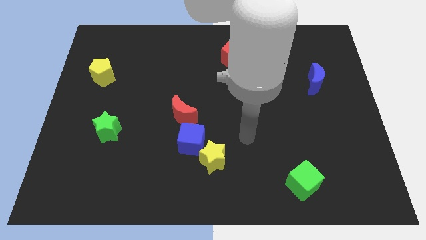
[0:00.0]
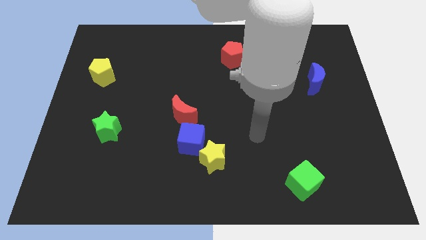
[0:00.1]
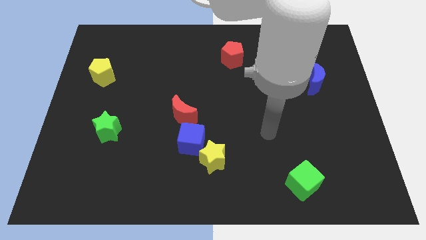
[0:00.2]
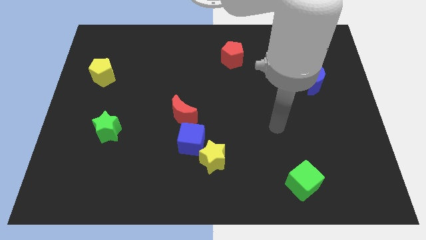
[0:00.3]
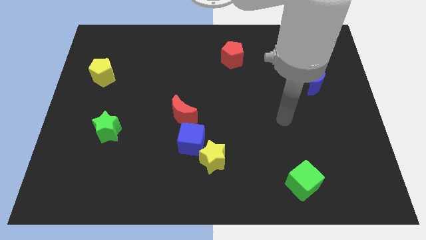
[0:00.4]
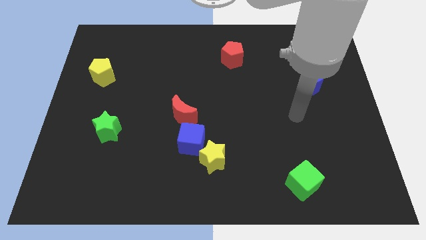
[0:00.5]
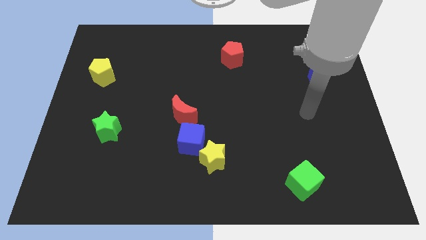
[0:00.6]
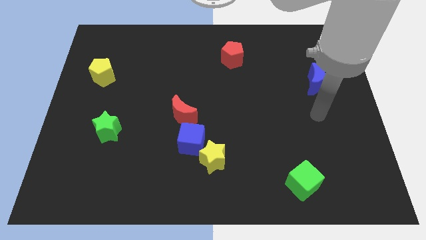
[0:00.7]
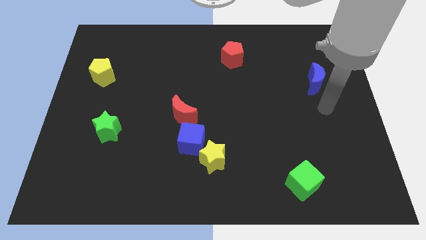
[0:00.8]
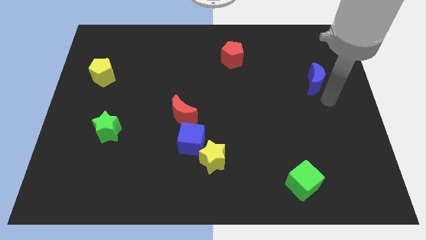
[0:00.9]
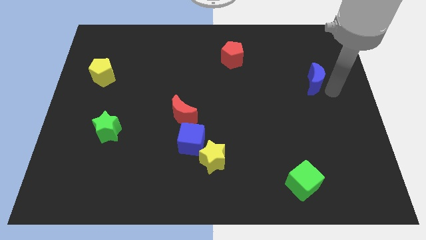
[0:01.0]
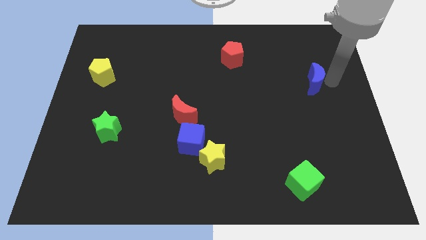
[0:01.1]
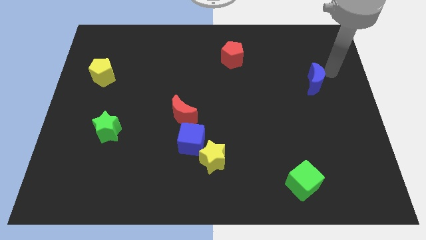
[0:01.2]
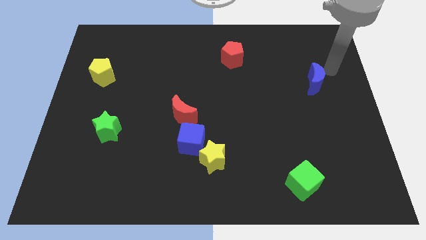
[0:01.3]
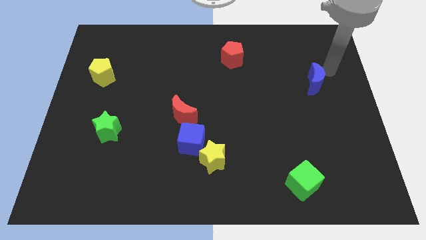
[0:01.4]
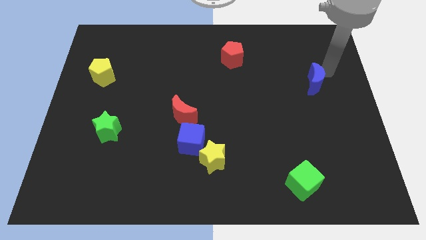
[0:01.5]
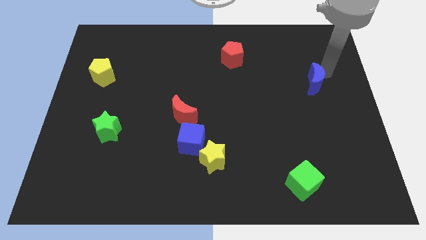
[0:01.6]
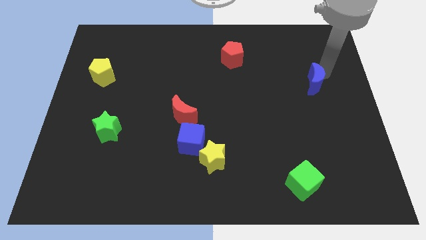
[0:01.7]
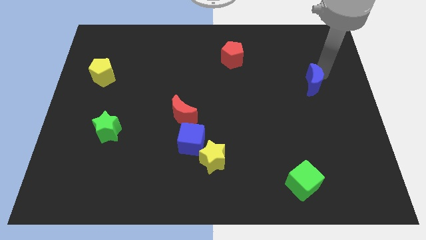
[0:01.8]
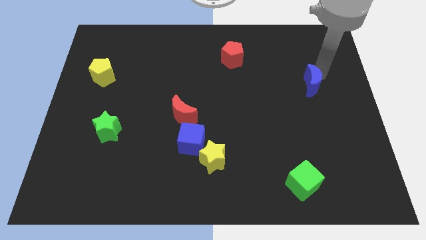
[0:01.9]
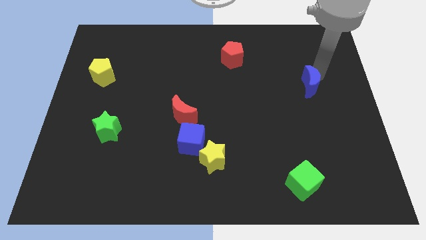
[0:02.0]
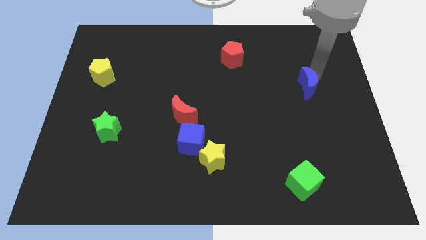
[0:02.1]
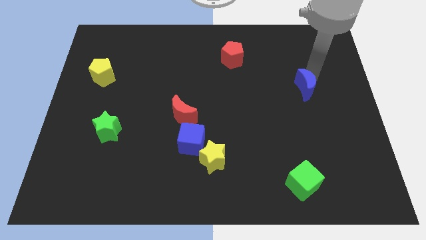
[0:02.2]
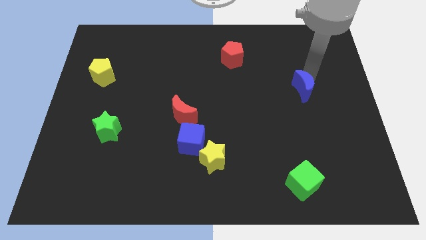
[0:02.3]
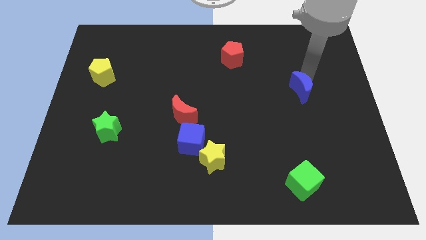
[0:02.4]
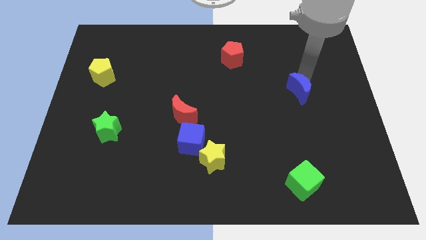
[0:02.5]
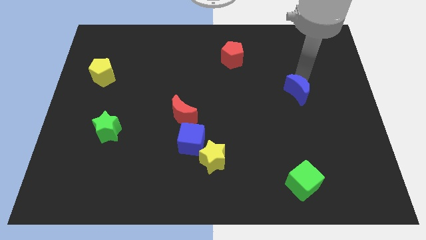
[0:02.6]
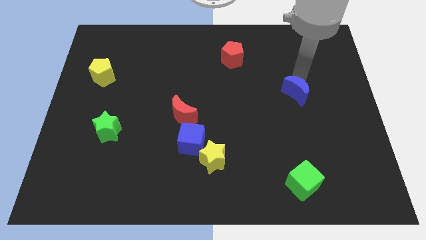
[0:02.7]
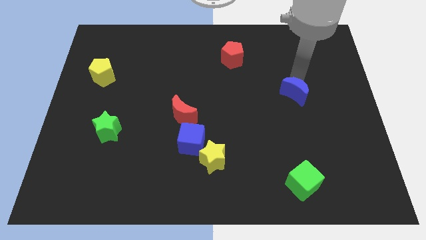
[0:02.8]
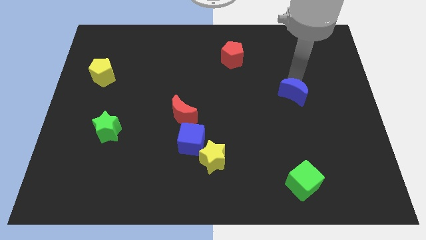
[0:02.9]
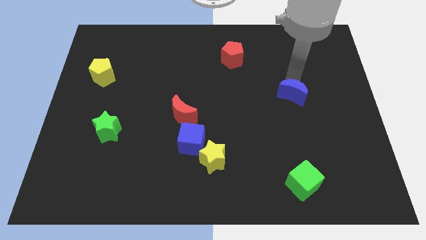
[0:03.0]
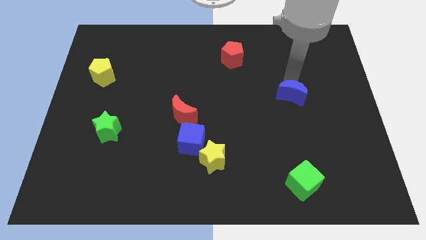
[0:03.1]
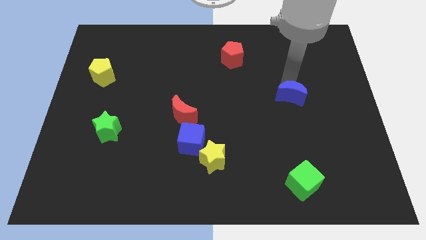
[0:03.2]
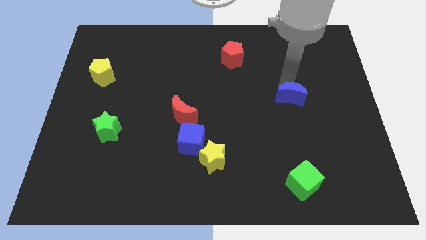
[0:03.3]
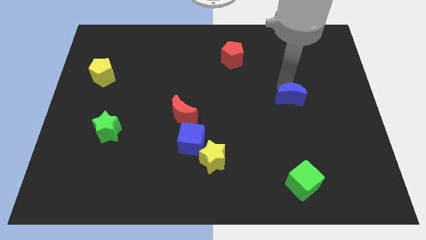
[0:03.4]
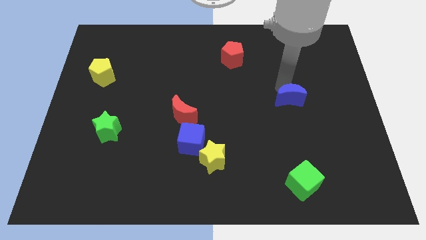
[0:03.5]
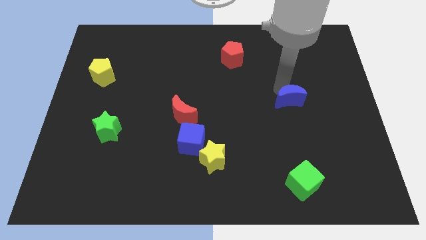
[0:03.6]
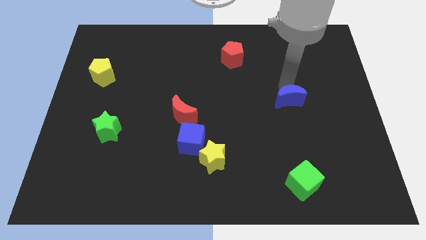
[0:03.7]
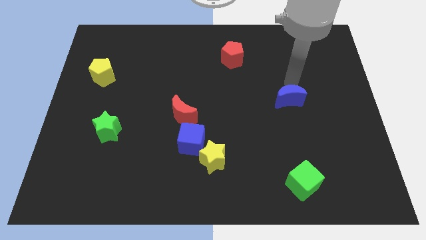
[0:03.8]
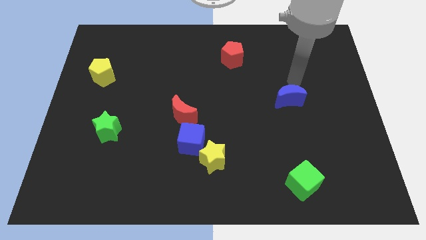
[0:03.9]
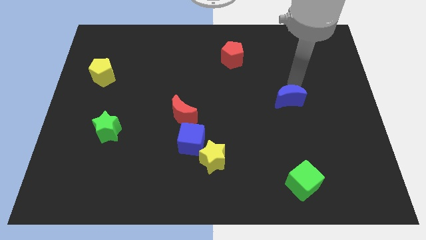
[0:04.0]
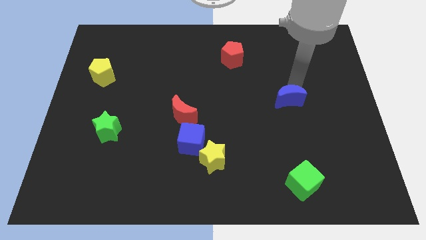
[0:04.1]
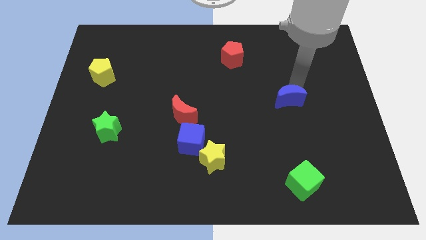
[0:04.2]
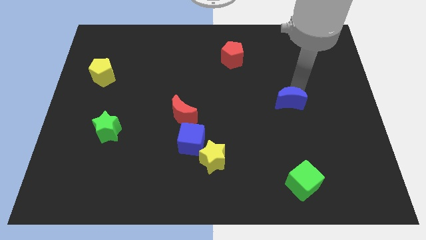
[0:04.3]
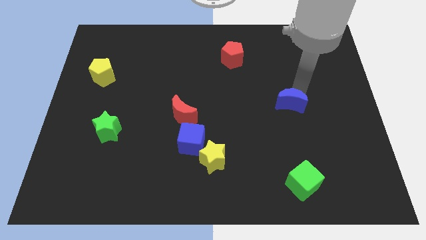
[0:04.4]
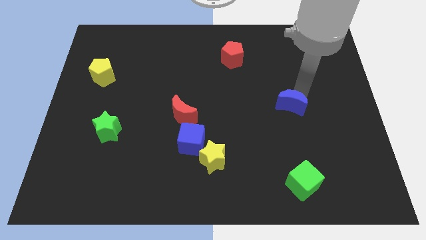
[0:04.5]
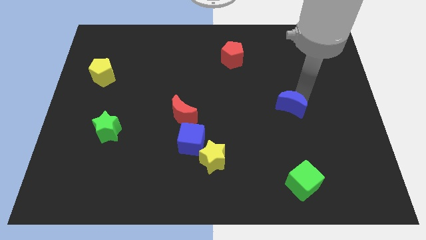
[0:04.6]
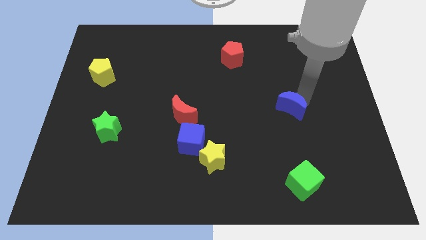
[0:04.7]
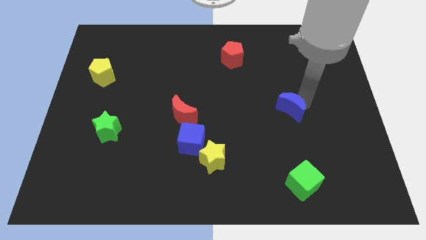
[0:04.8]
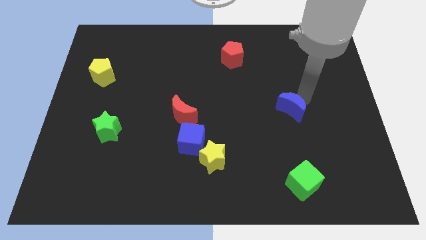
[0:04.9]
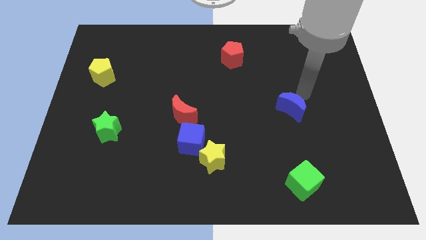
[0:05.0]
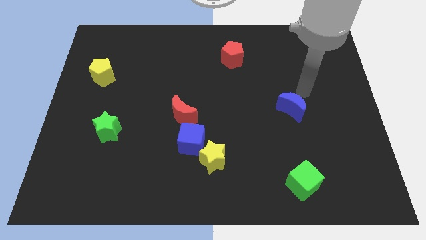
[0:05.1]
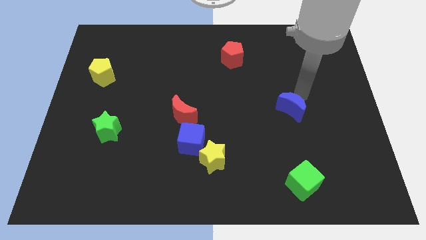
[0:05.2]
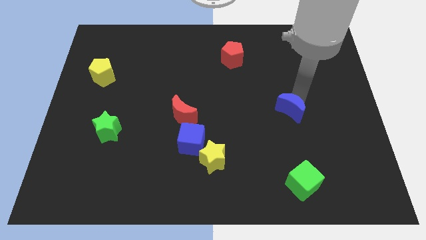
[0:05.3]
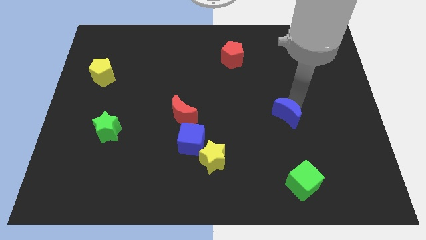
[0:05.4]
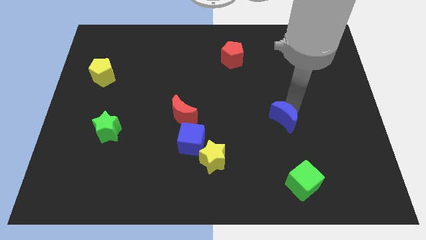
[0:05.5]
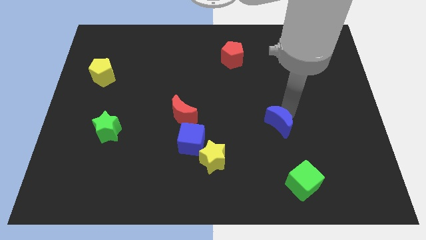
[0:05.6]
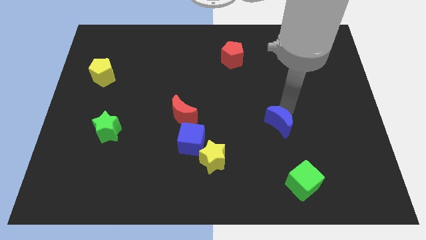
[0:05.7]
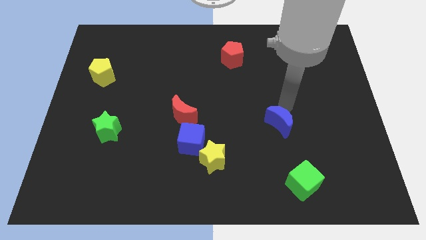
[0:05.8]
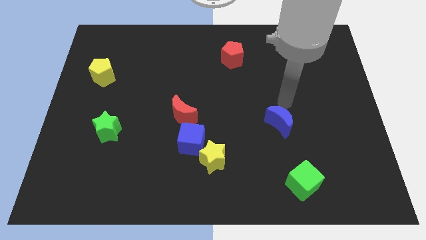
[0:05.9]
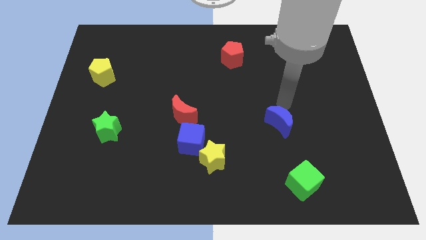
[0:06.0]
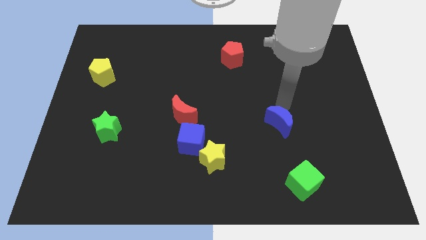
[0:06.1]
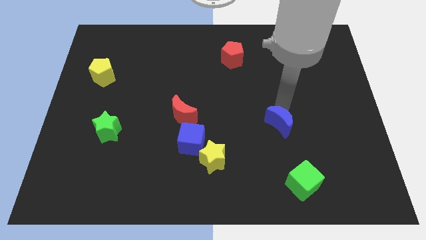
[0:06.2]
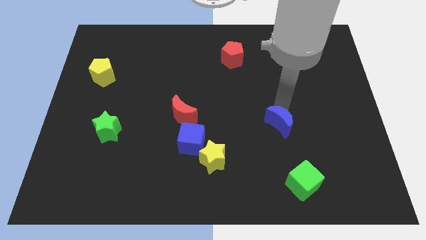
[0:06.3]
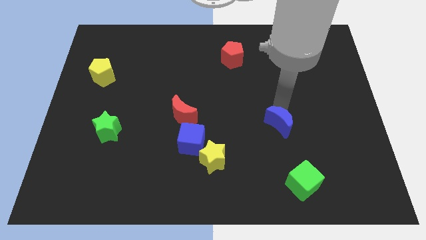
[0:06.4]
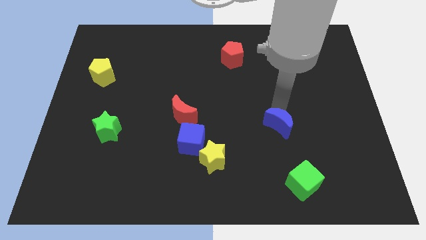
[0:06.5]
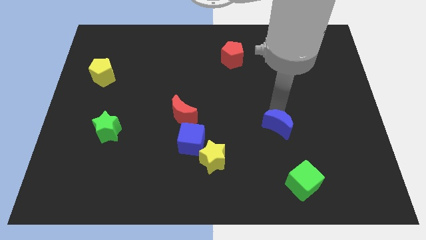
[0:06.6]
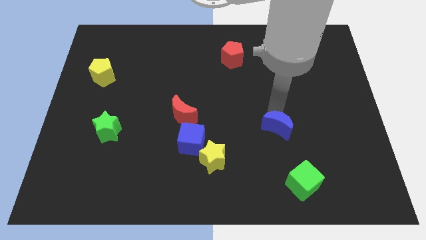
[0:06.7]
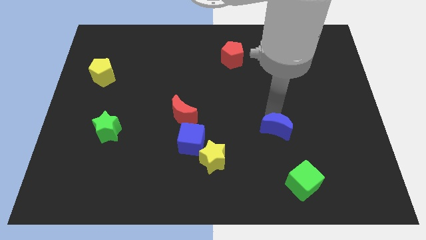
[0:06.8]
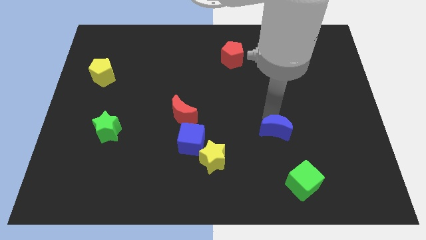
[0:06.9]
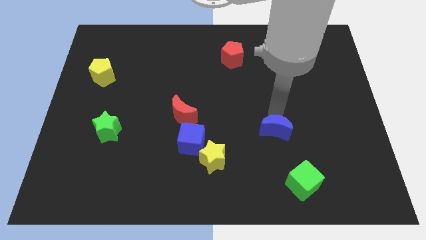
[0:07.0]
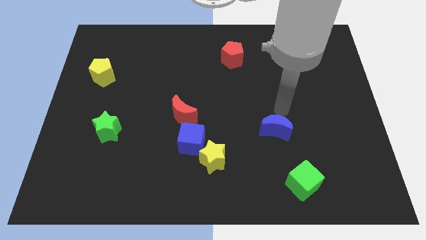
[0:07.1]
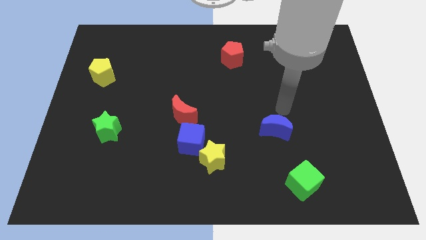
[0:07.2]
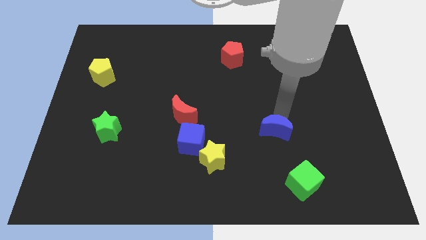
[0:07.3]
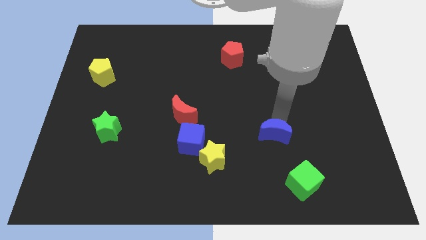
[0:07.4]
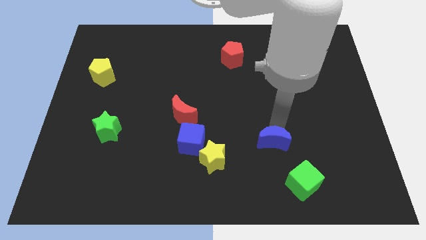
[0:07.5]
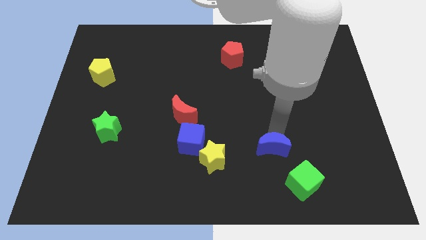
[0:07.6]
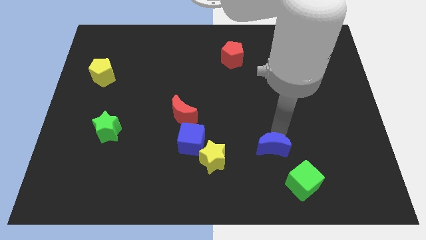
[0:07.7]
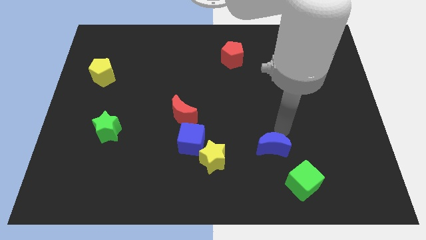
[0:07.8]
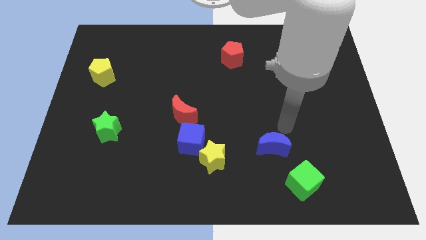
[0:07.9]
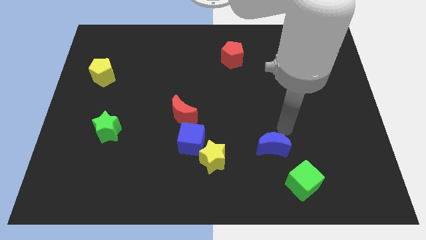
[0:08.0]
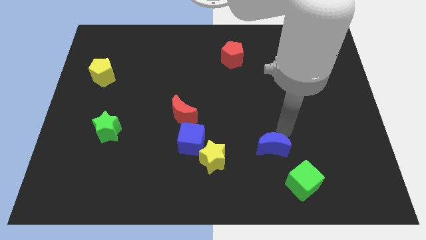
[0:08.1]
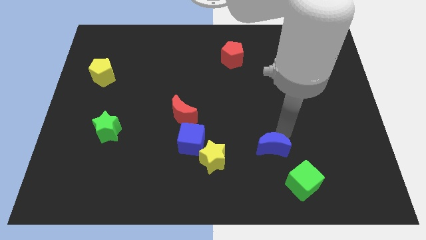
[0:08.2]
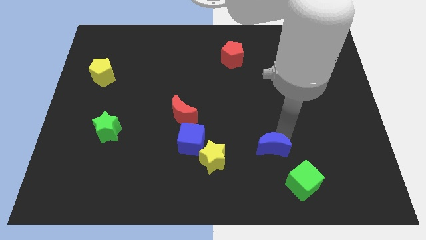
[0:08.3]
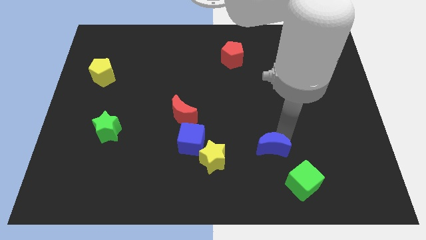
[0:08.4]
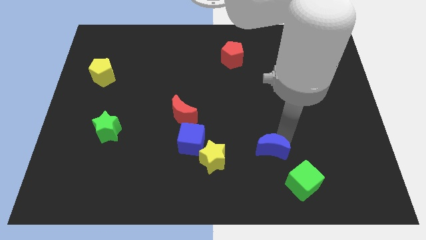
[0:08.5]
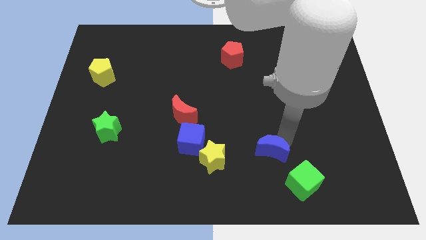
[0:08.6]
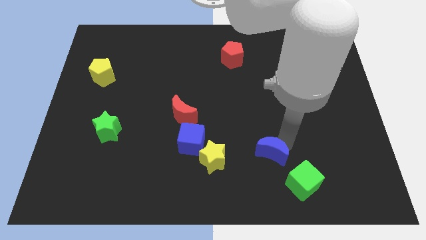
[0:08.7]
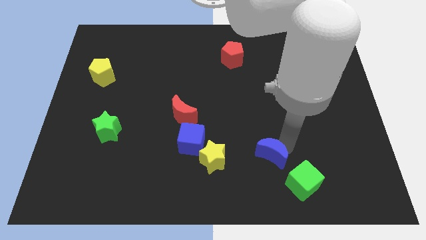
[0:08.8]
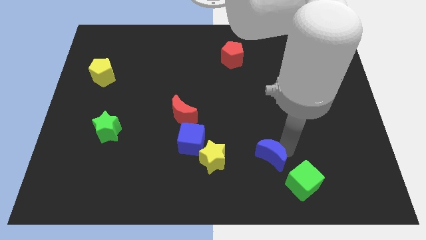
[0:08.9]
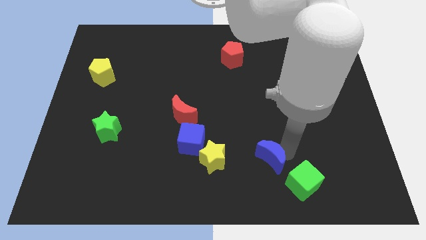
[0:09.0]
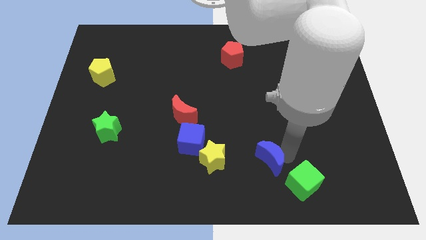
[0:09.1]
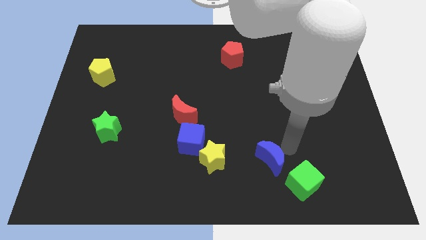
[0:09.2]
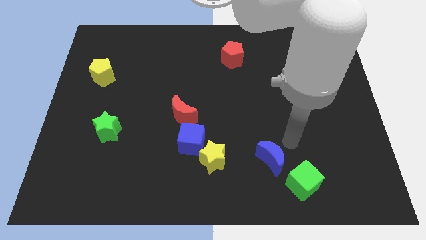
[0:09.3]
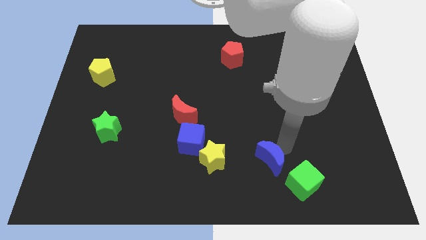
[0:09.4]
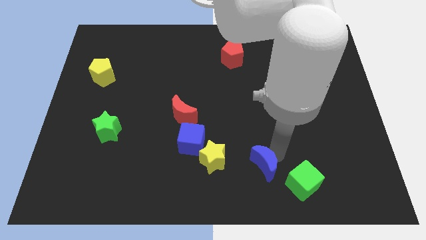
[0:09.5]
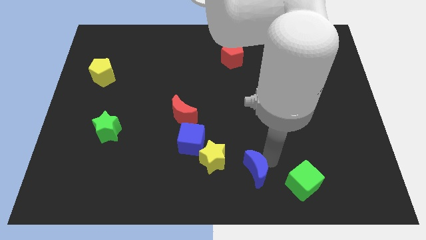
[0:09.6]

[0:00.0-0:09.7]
move the blue moon to the bottom
